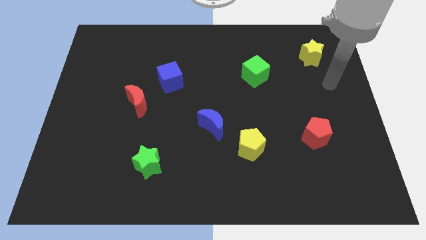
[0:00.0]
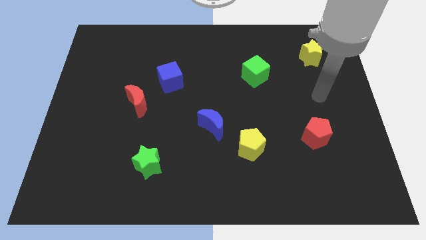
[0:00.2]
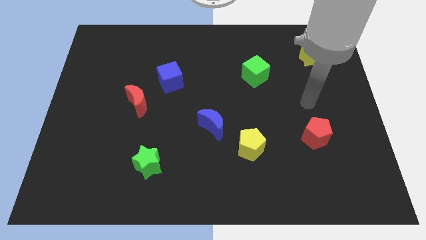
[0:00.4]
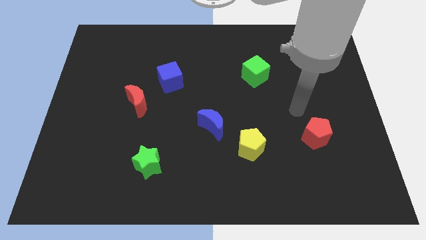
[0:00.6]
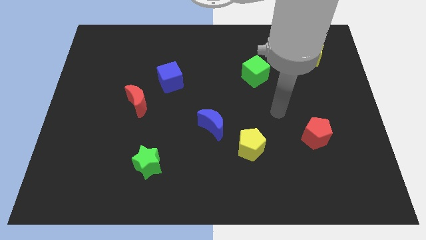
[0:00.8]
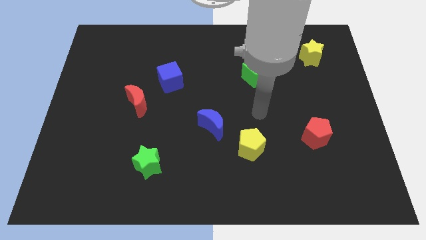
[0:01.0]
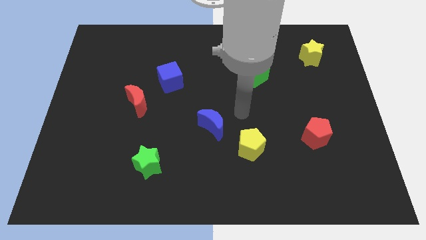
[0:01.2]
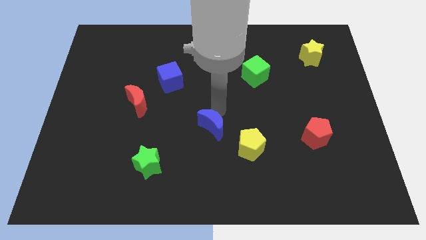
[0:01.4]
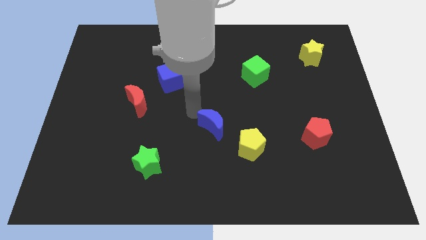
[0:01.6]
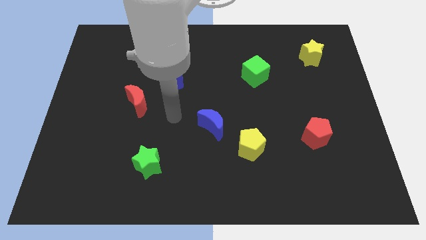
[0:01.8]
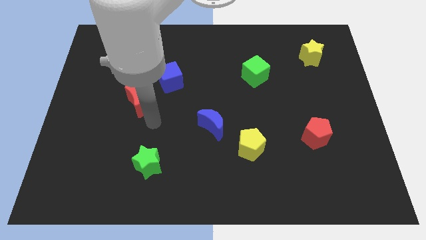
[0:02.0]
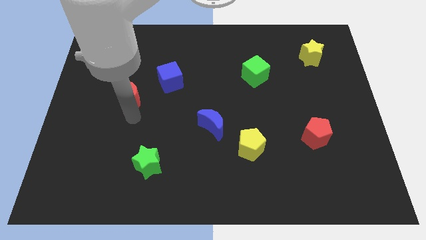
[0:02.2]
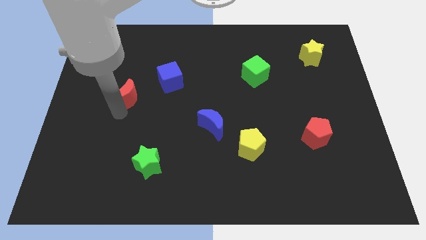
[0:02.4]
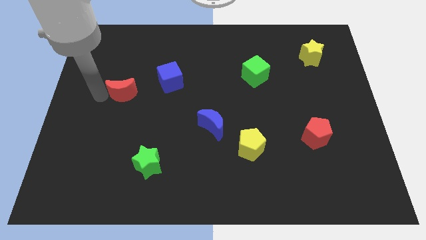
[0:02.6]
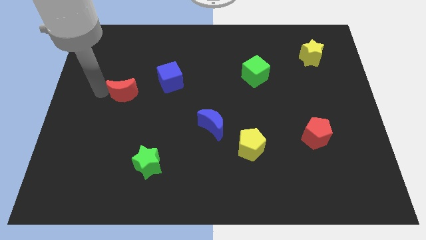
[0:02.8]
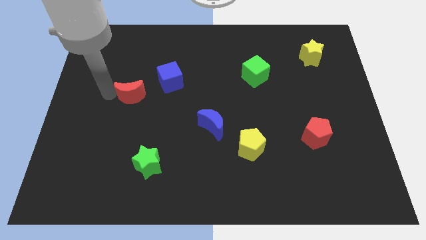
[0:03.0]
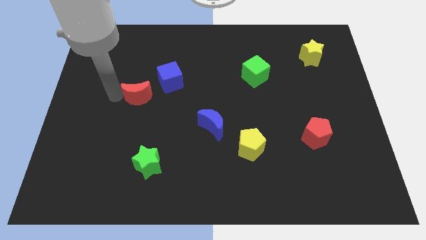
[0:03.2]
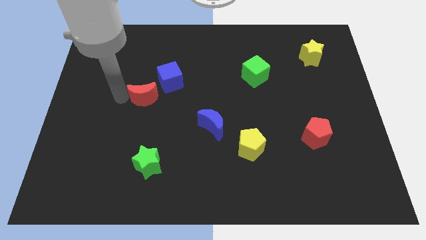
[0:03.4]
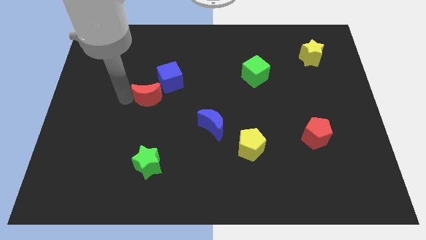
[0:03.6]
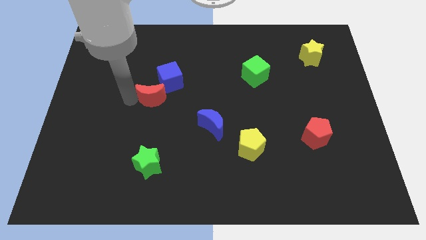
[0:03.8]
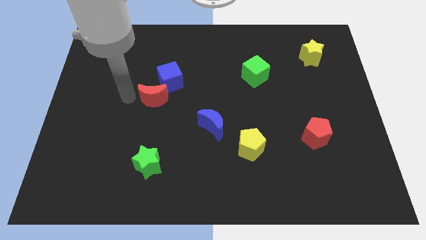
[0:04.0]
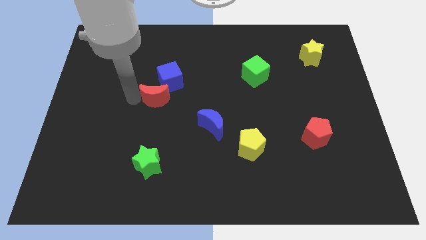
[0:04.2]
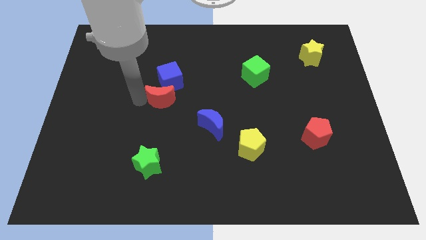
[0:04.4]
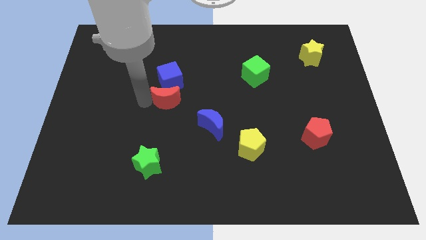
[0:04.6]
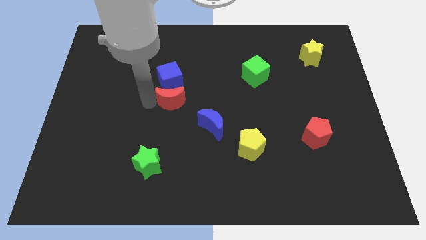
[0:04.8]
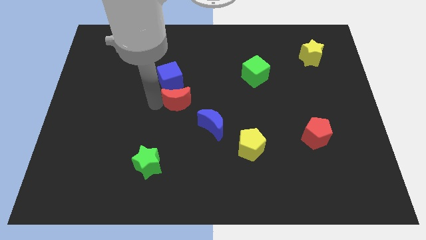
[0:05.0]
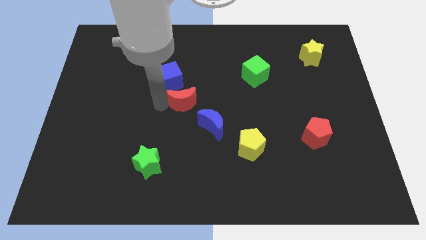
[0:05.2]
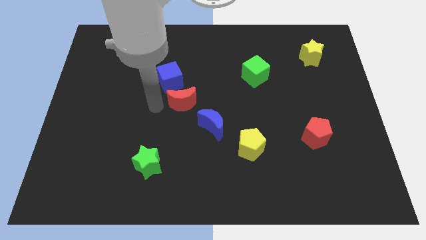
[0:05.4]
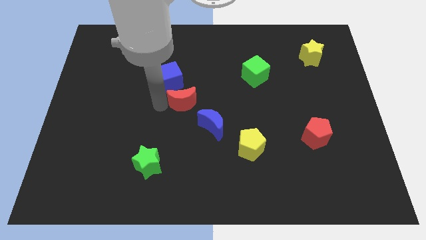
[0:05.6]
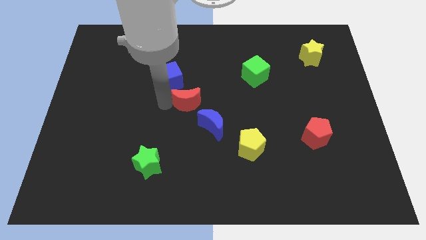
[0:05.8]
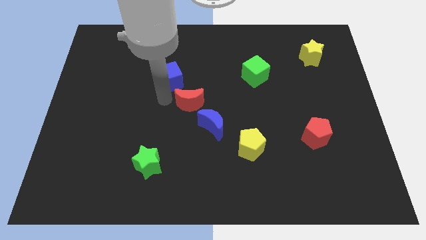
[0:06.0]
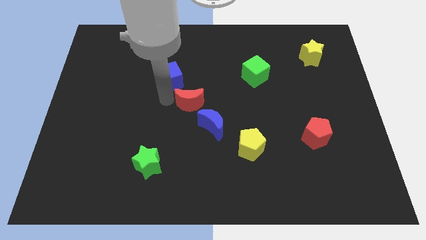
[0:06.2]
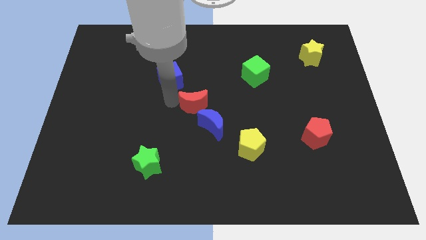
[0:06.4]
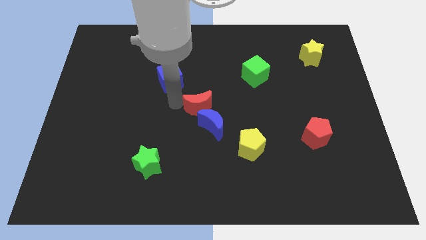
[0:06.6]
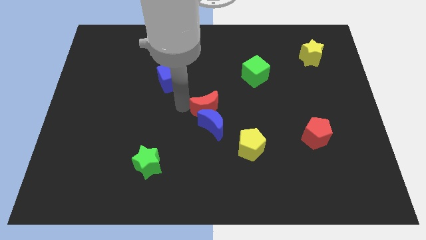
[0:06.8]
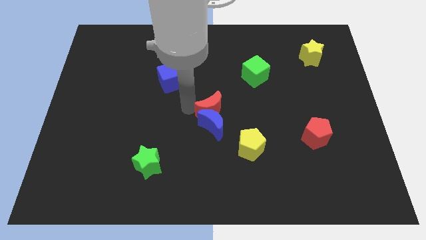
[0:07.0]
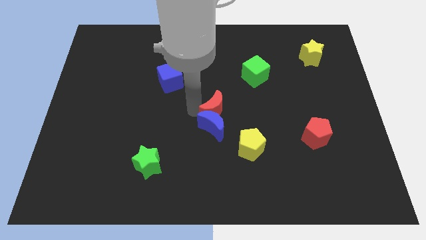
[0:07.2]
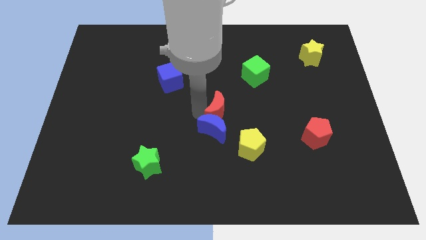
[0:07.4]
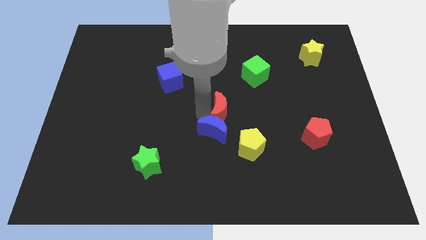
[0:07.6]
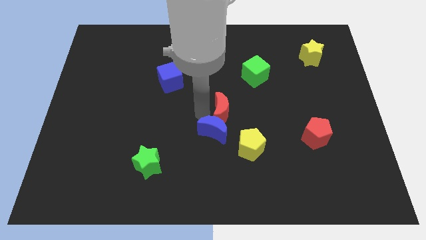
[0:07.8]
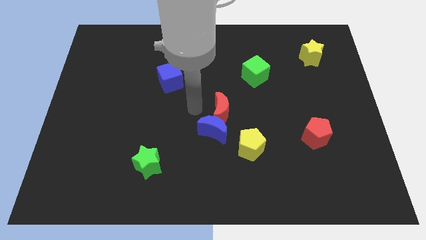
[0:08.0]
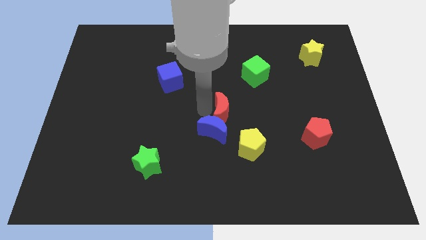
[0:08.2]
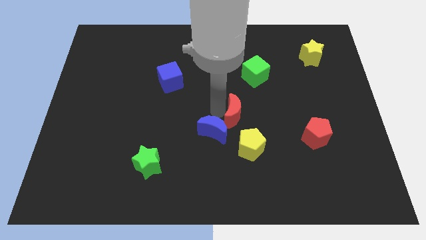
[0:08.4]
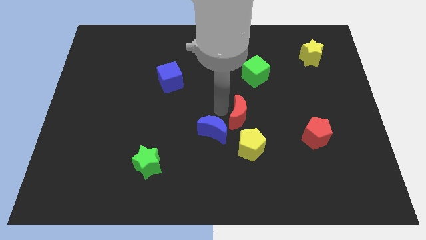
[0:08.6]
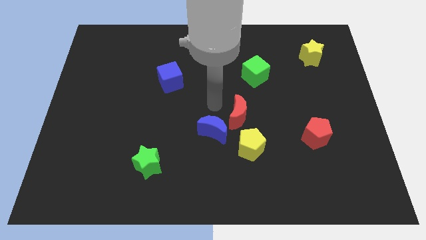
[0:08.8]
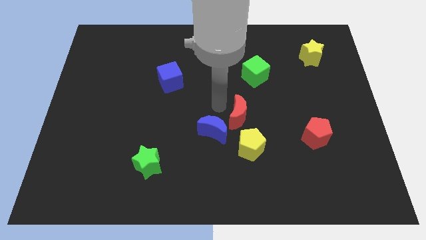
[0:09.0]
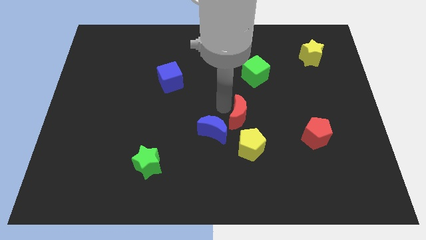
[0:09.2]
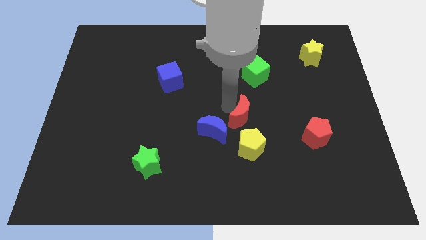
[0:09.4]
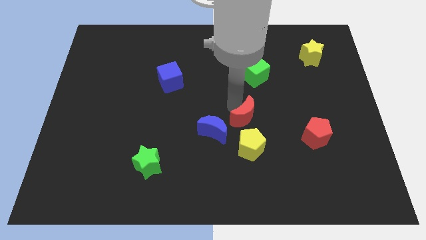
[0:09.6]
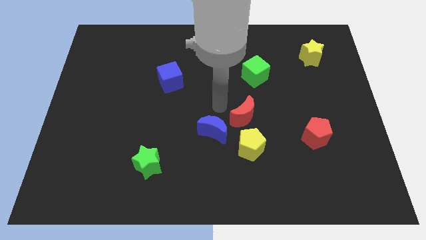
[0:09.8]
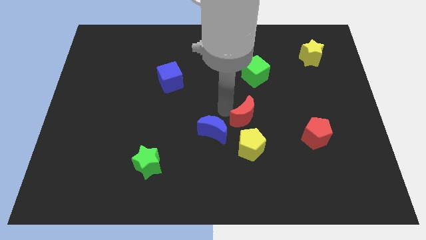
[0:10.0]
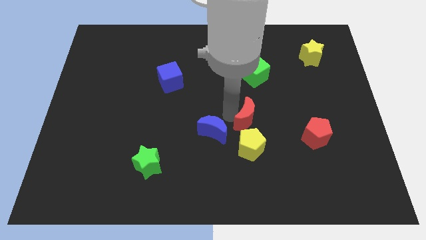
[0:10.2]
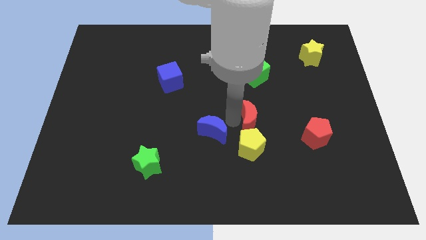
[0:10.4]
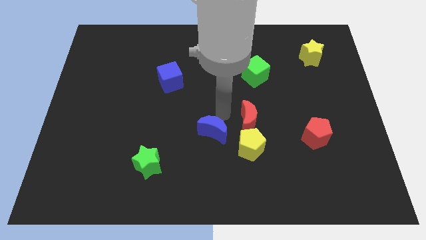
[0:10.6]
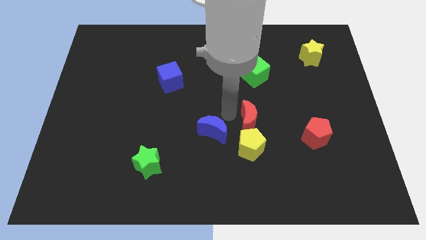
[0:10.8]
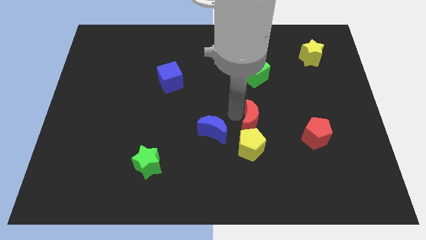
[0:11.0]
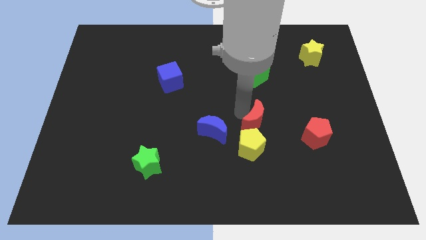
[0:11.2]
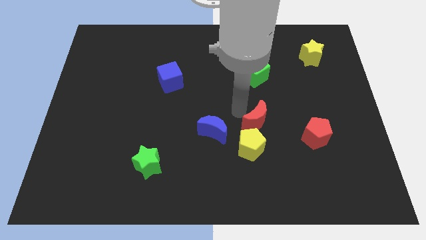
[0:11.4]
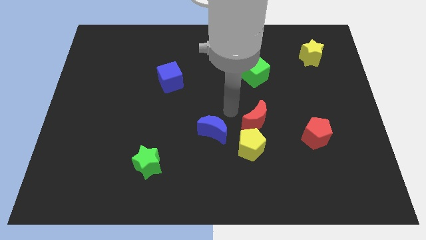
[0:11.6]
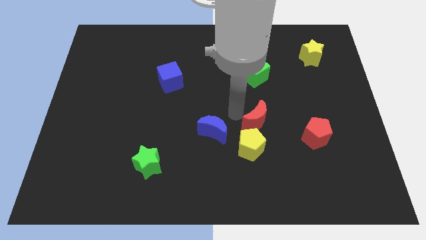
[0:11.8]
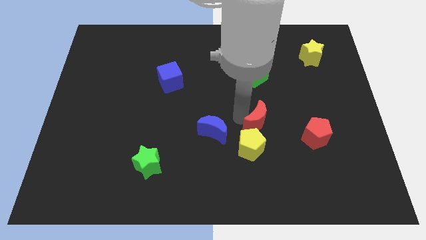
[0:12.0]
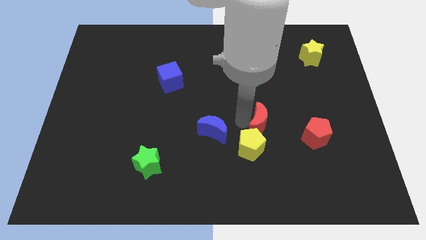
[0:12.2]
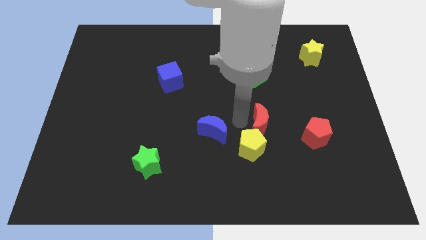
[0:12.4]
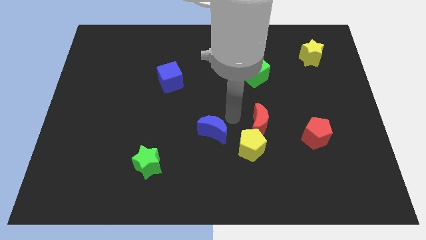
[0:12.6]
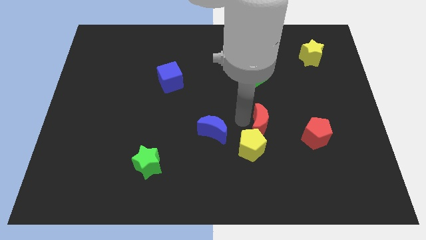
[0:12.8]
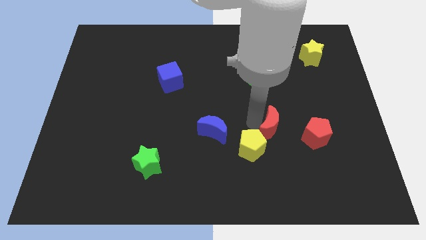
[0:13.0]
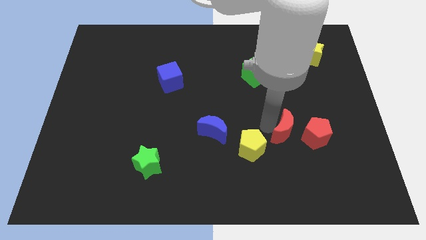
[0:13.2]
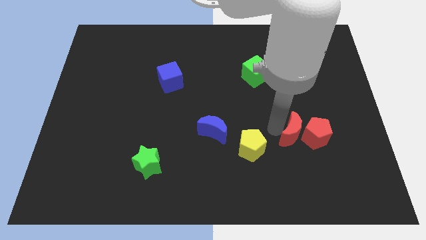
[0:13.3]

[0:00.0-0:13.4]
put the red moon towards the red pentagon

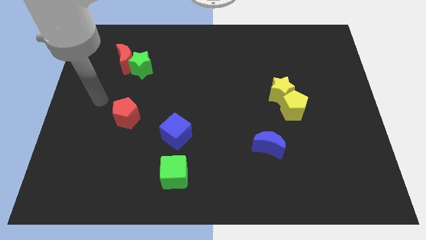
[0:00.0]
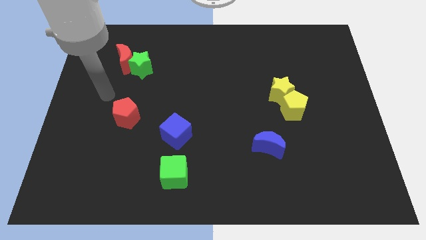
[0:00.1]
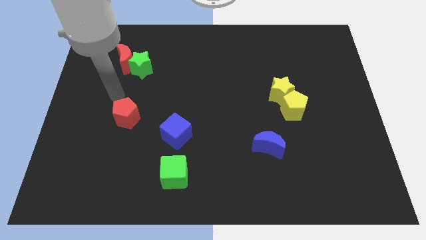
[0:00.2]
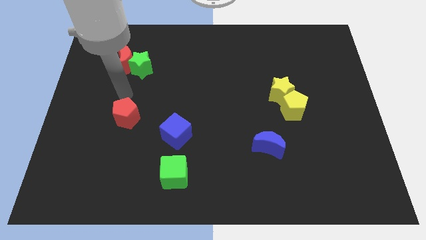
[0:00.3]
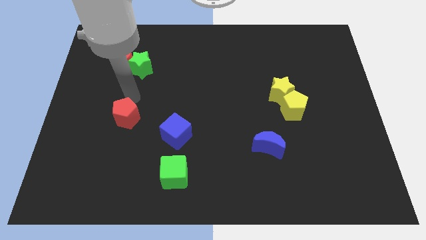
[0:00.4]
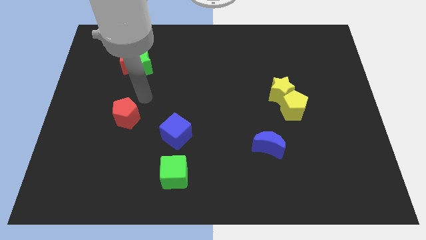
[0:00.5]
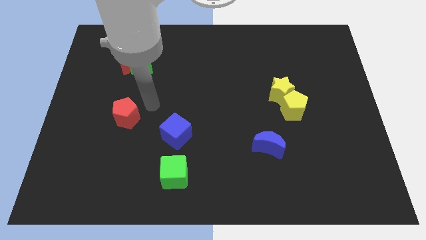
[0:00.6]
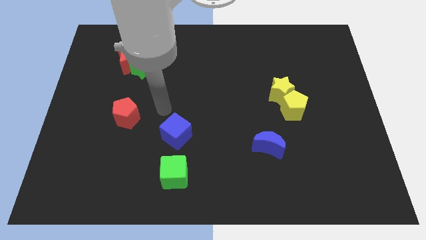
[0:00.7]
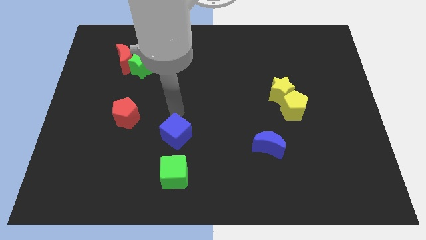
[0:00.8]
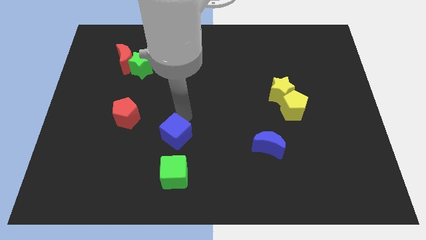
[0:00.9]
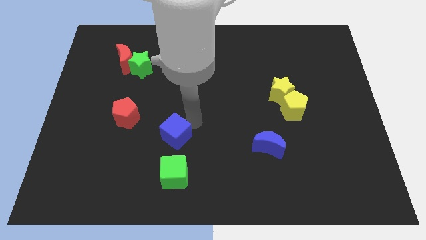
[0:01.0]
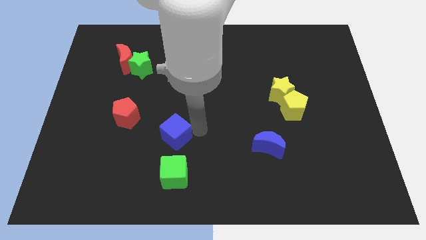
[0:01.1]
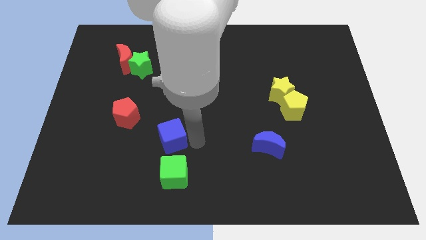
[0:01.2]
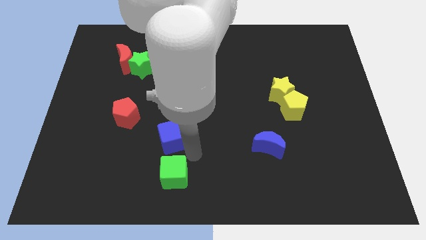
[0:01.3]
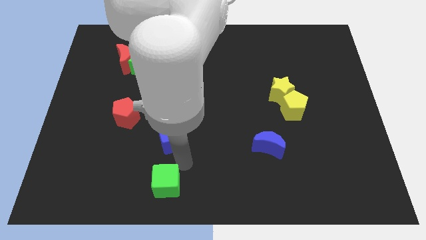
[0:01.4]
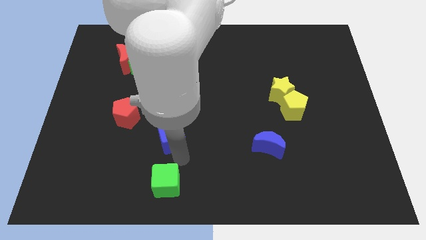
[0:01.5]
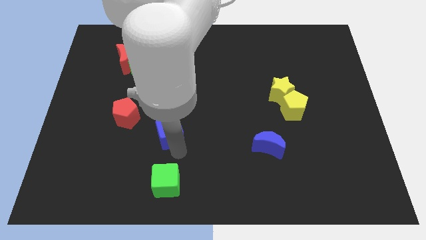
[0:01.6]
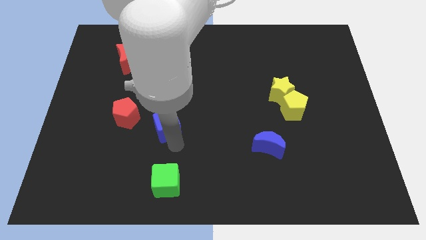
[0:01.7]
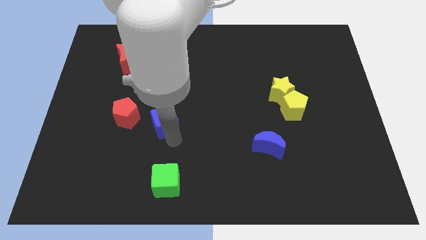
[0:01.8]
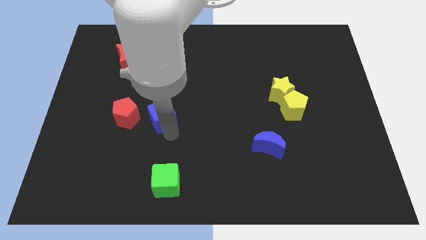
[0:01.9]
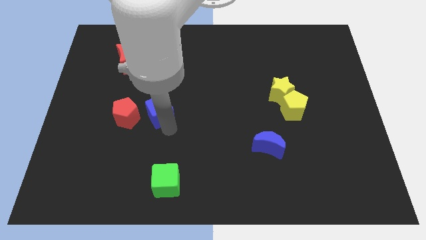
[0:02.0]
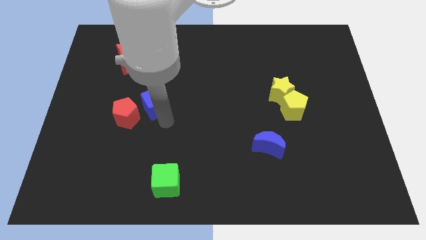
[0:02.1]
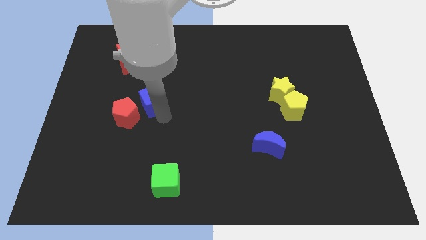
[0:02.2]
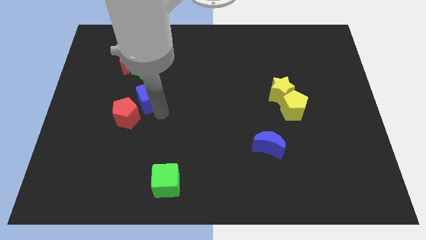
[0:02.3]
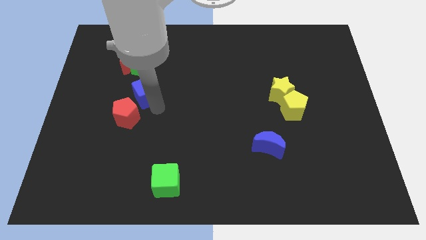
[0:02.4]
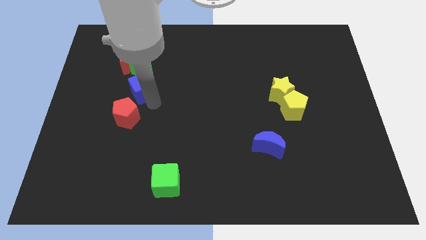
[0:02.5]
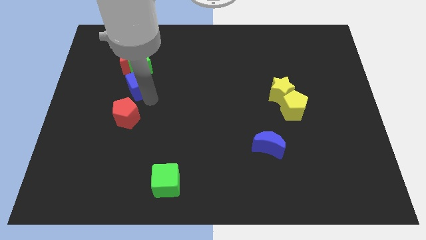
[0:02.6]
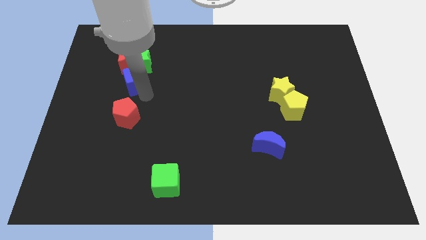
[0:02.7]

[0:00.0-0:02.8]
move the blue cube next to the green star
